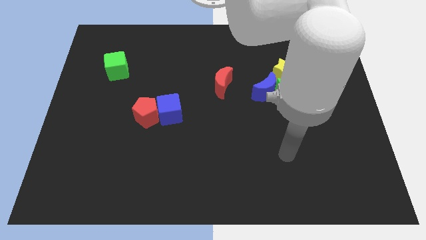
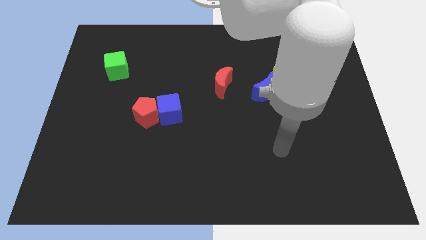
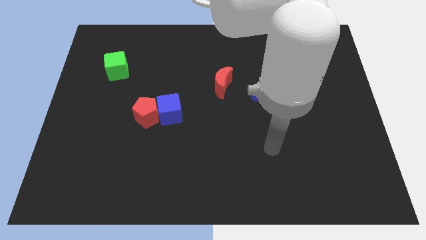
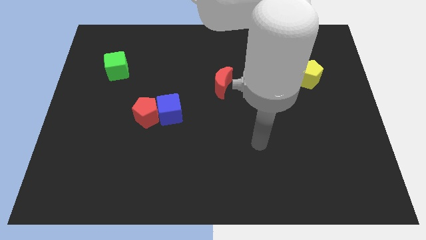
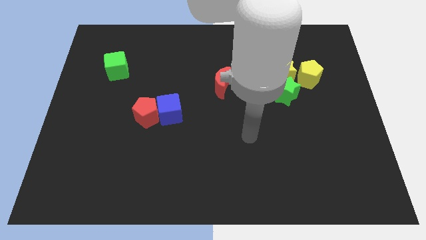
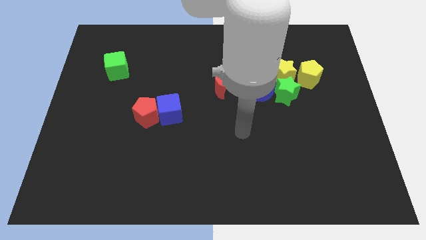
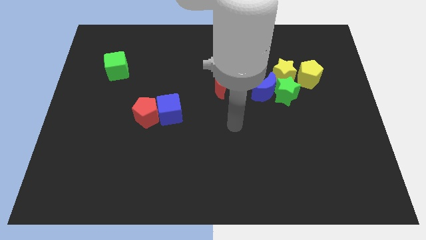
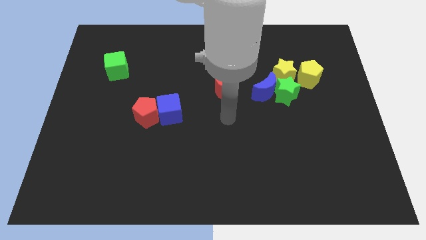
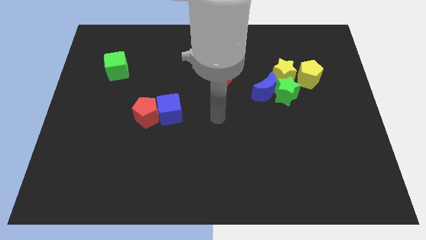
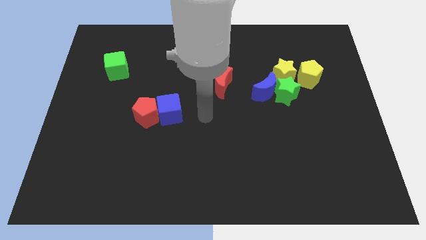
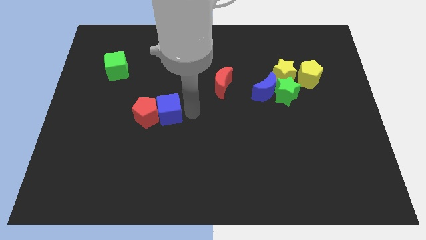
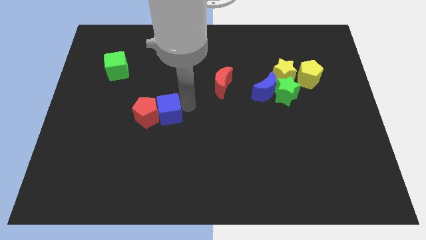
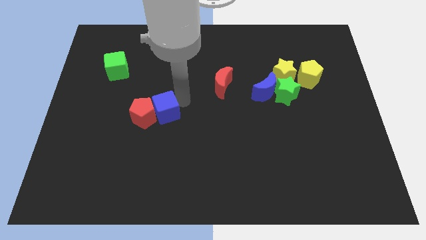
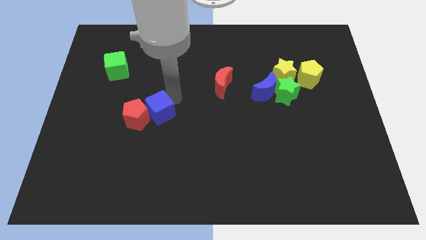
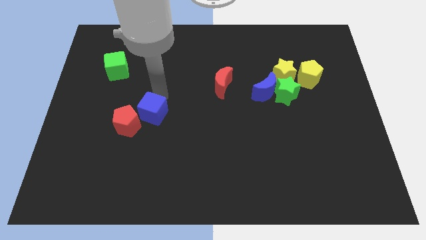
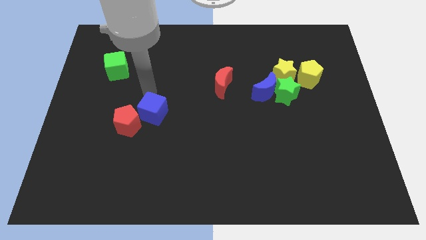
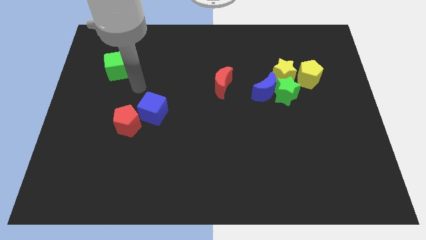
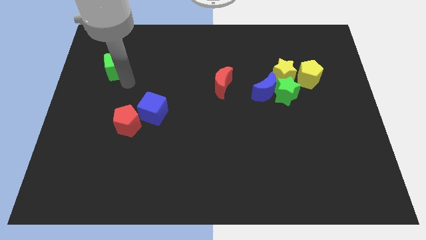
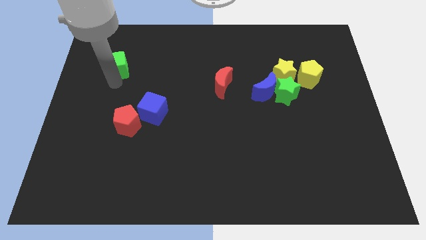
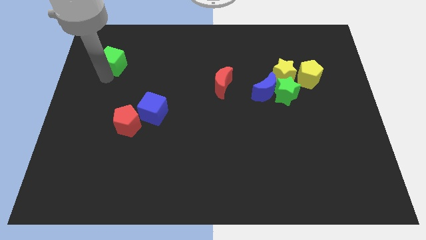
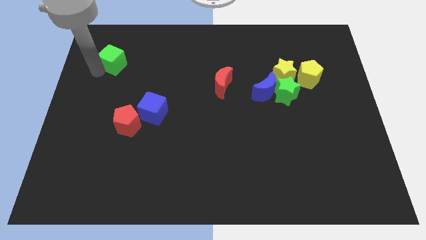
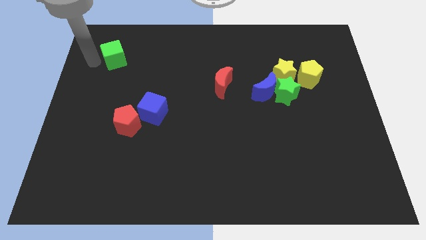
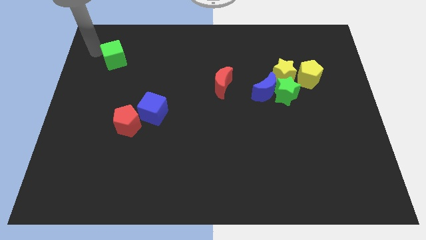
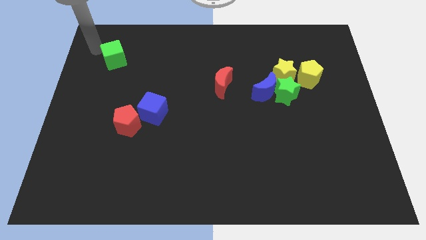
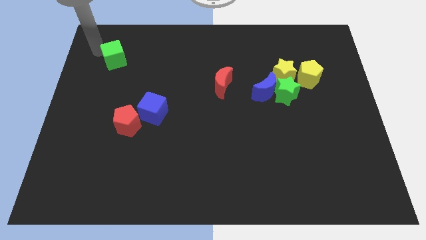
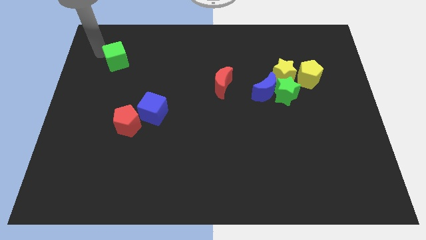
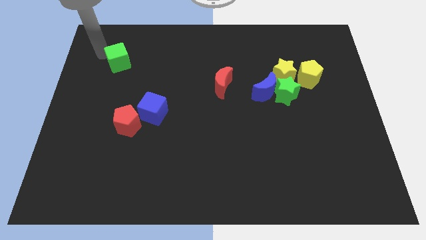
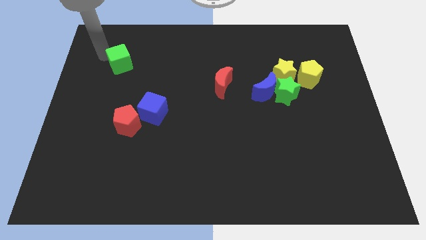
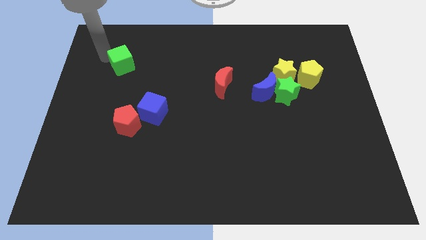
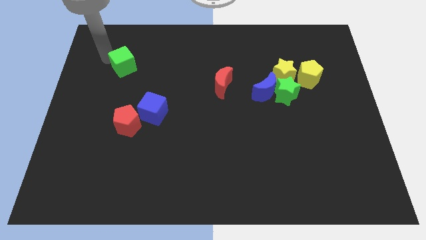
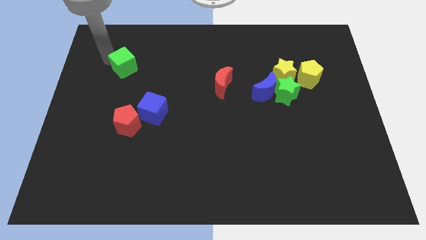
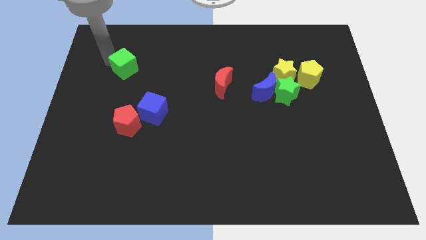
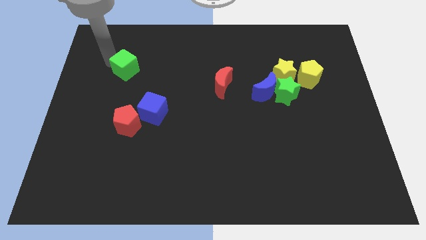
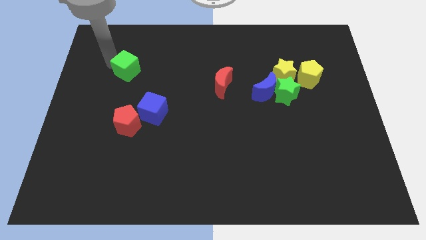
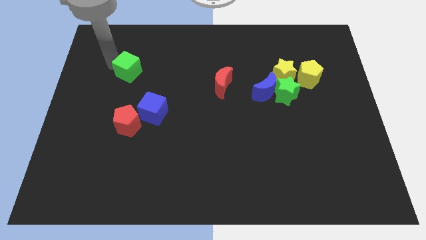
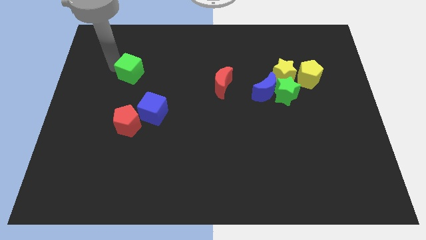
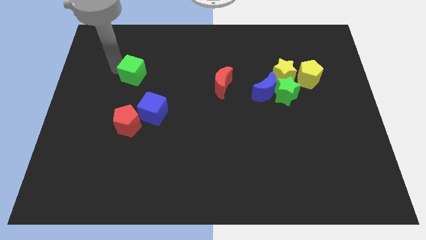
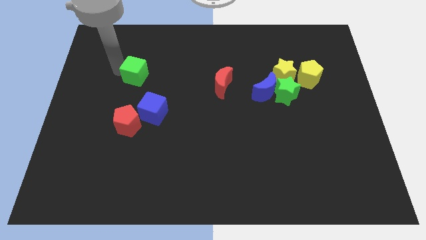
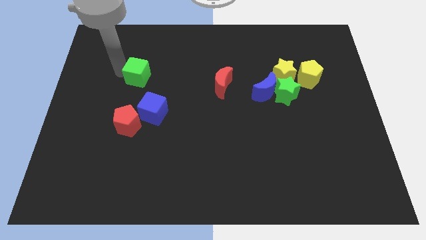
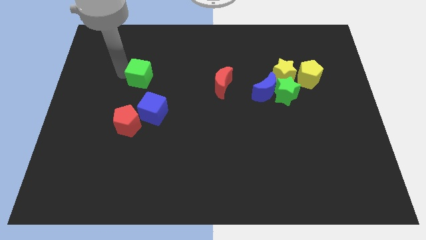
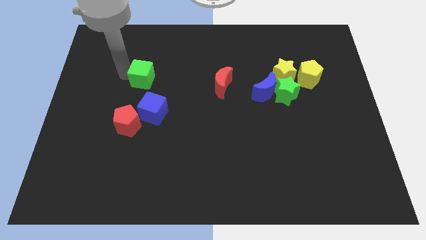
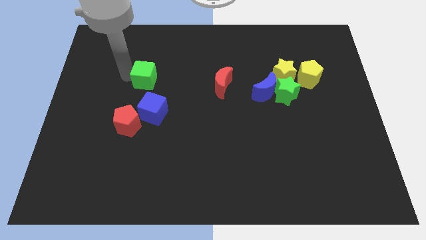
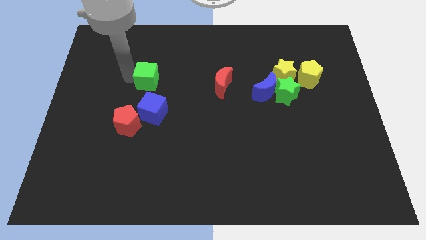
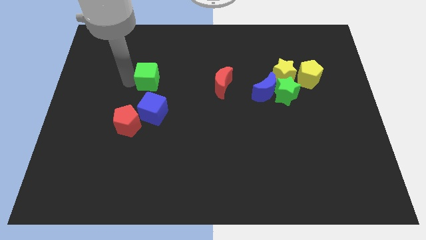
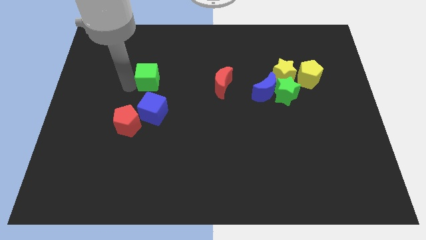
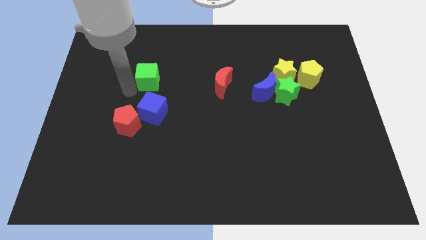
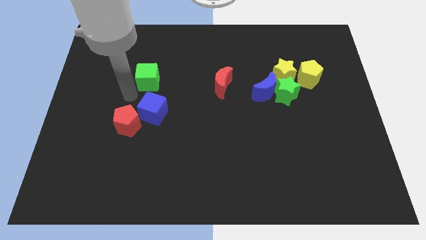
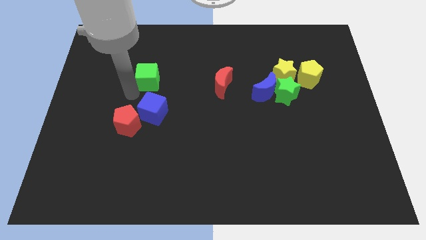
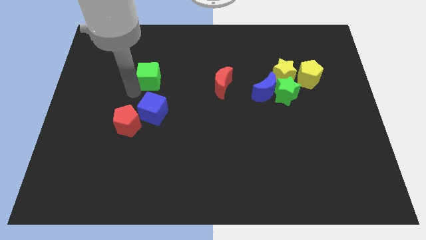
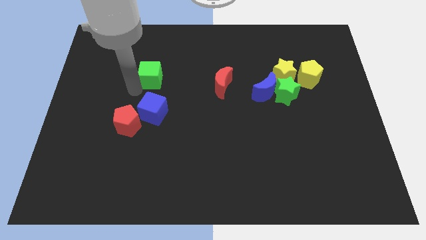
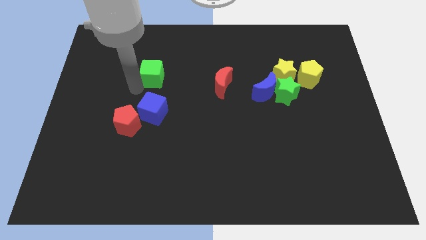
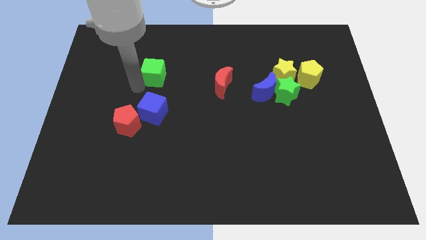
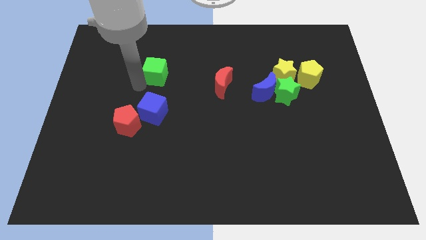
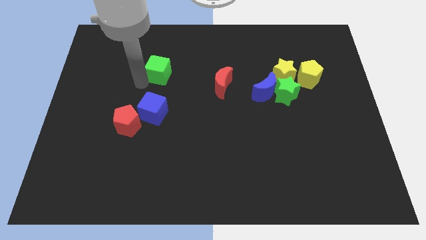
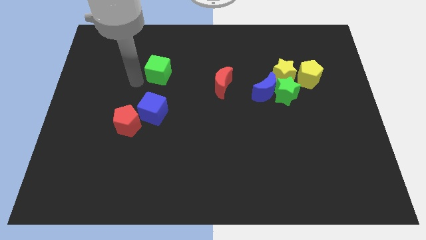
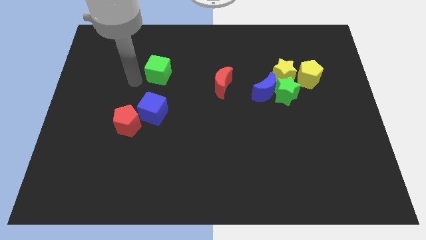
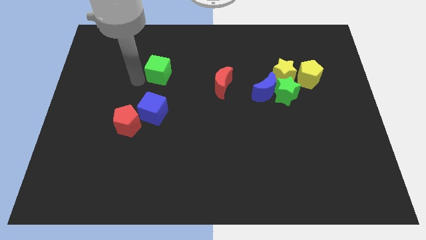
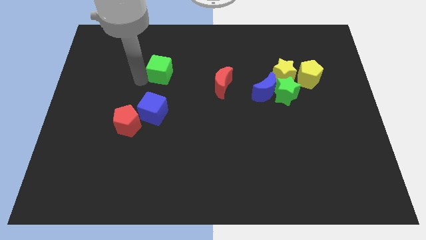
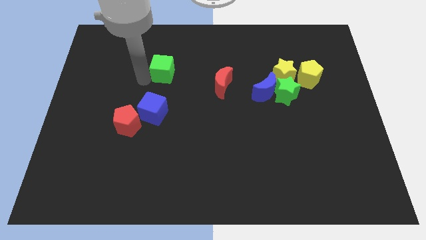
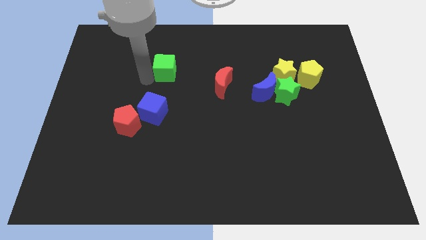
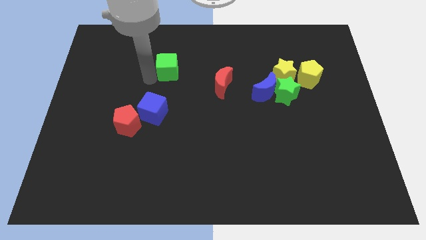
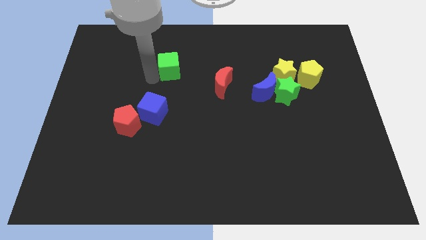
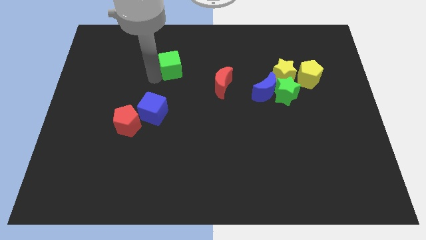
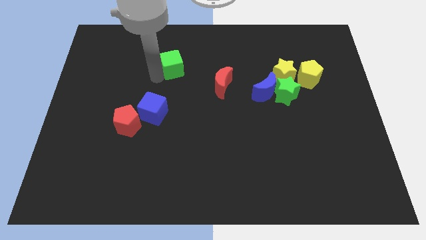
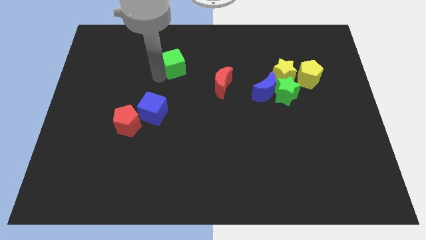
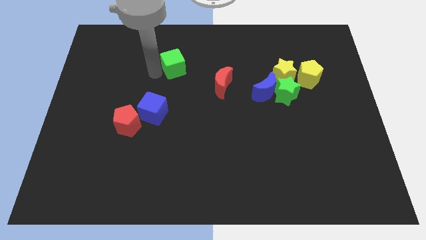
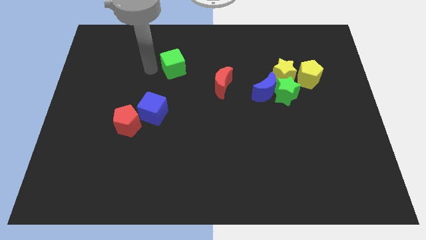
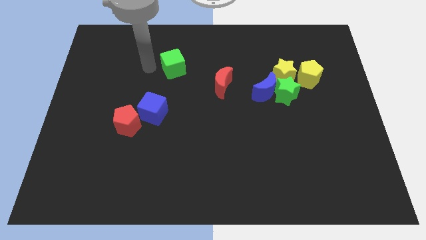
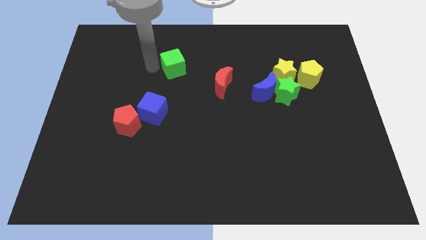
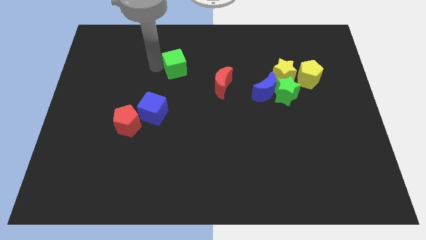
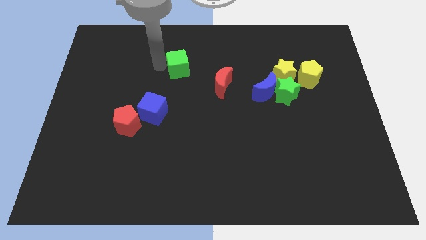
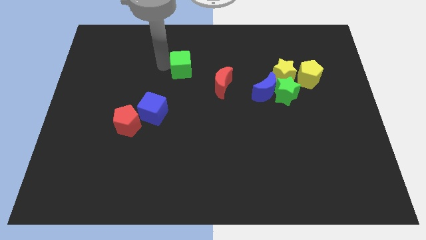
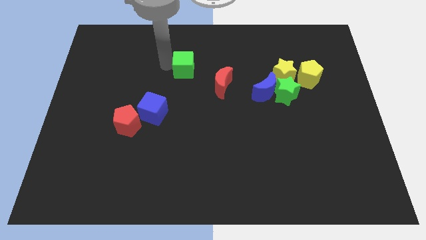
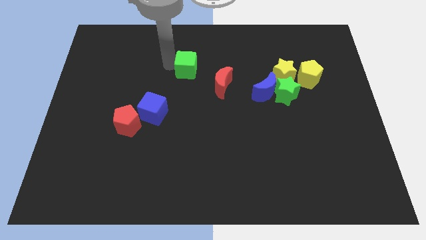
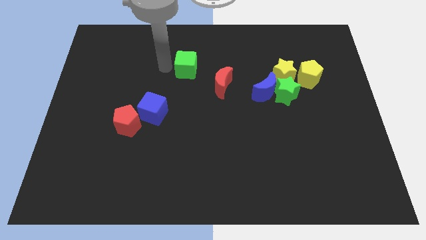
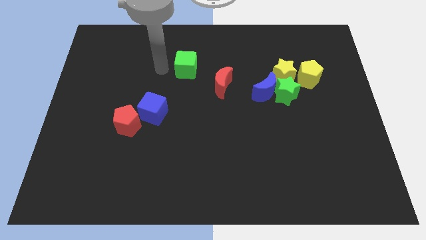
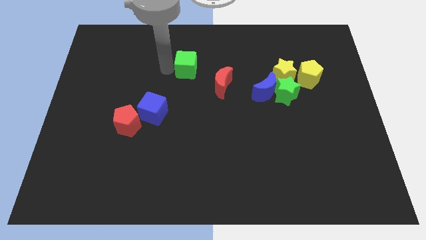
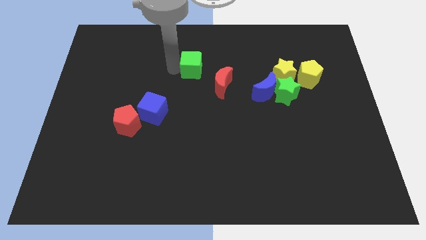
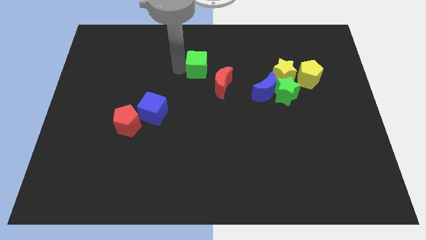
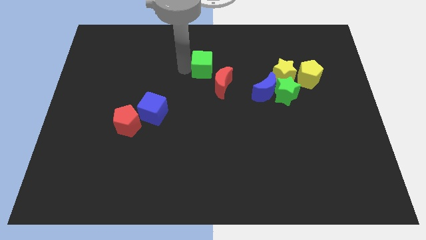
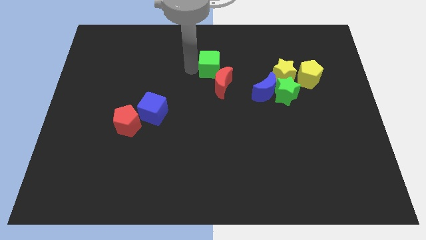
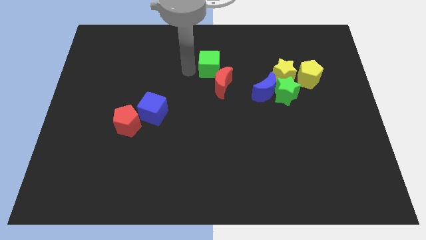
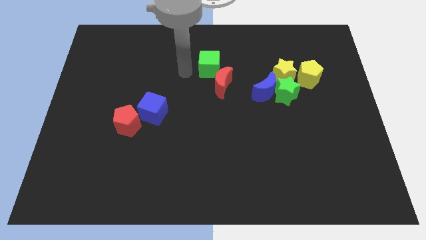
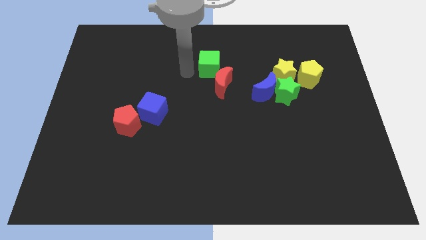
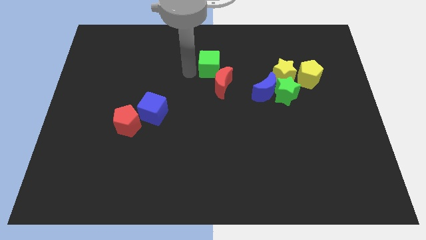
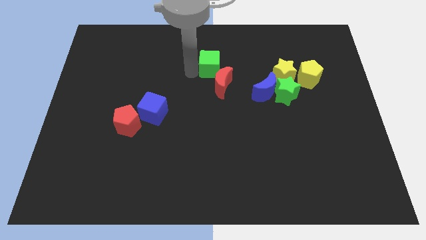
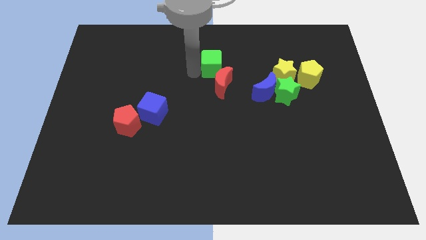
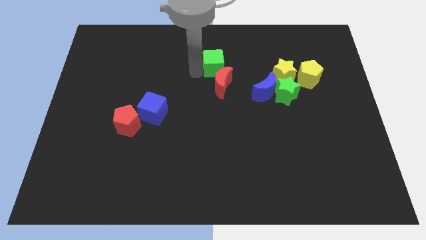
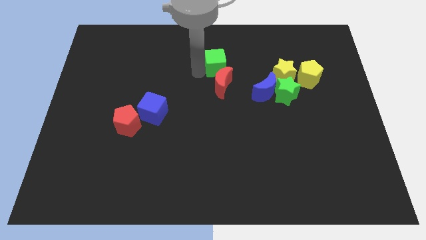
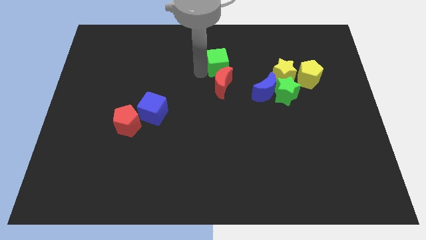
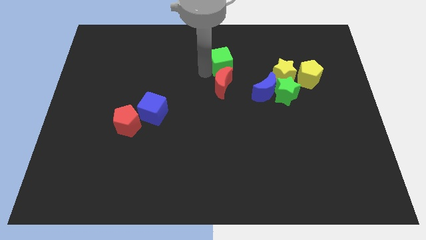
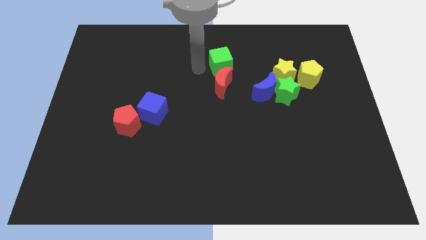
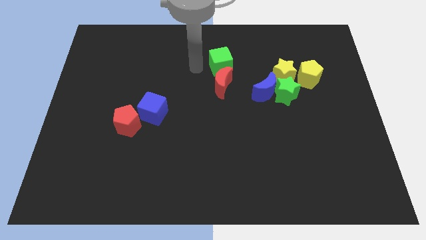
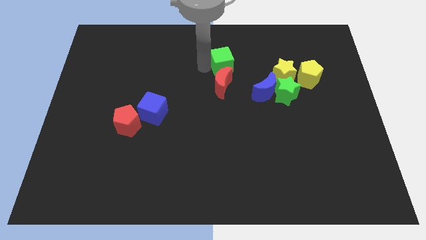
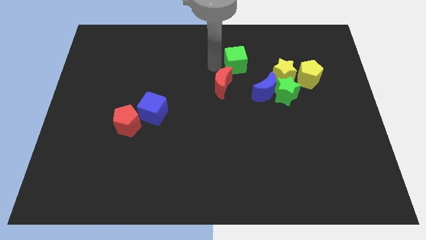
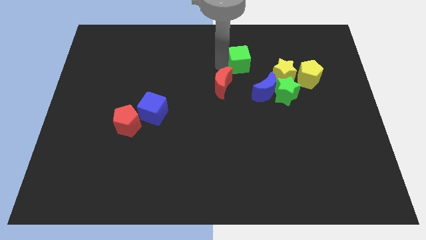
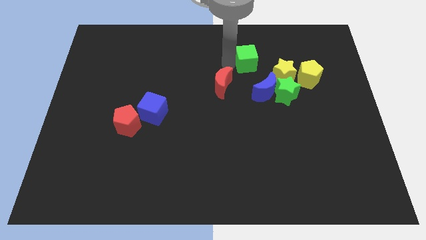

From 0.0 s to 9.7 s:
put the green cube diagonally up and to the left of the yellow star
